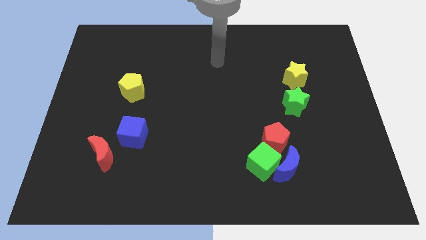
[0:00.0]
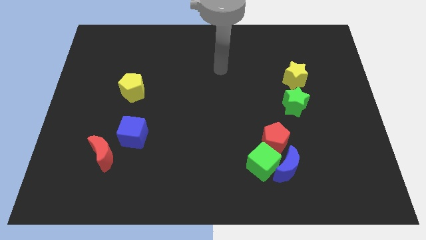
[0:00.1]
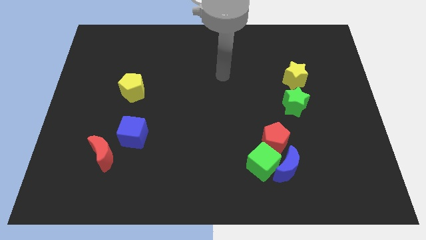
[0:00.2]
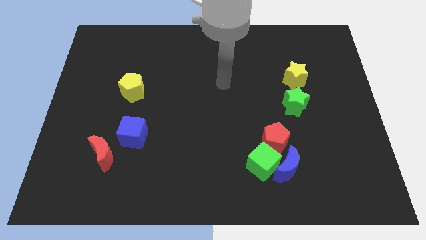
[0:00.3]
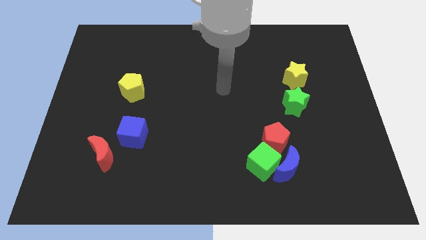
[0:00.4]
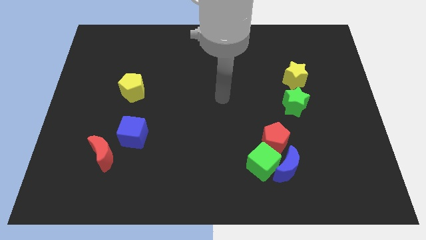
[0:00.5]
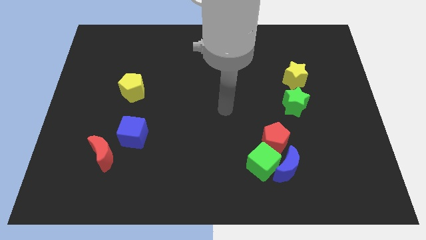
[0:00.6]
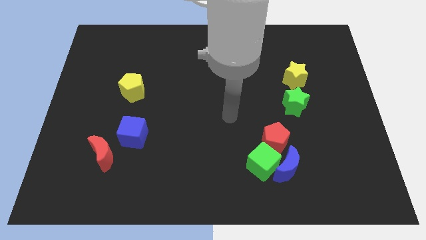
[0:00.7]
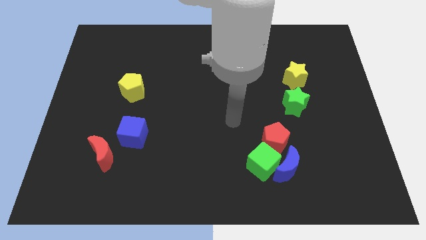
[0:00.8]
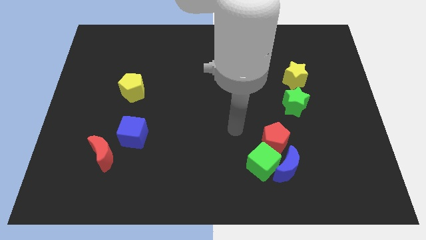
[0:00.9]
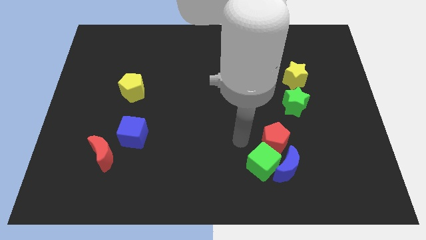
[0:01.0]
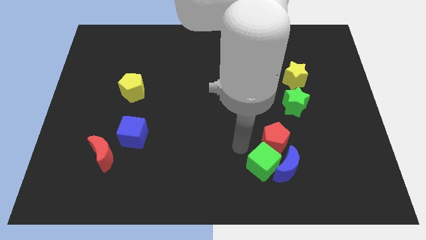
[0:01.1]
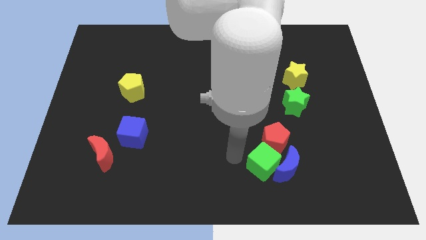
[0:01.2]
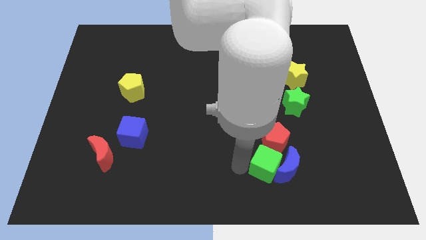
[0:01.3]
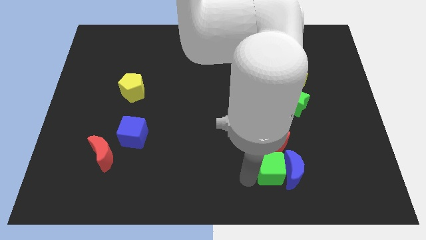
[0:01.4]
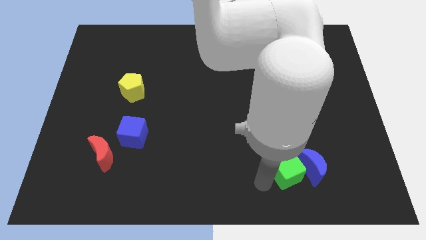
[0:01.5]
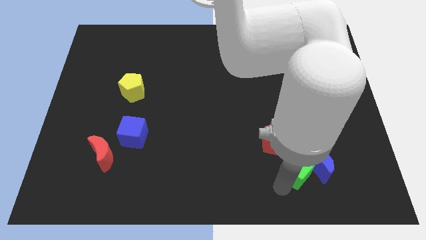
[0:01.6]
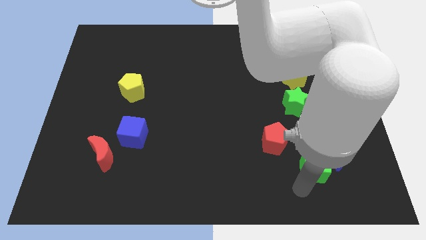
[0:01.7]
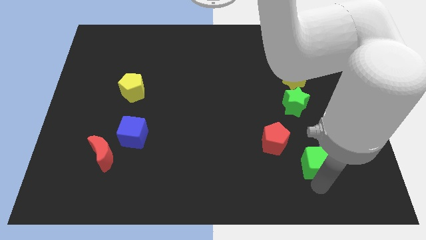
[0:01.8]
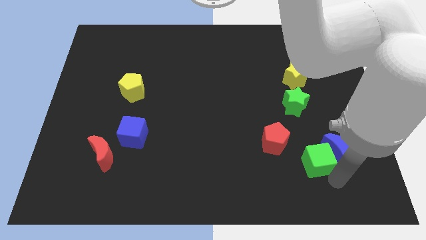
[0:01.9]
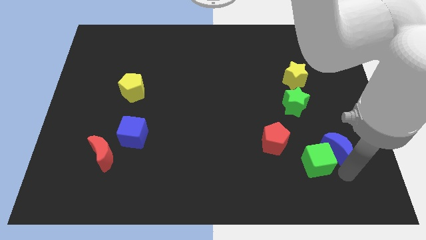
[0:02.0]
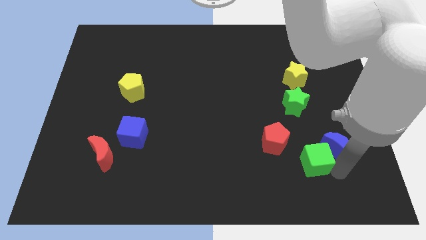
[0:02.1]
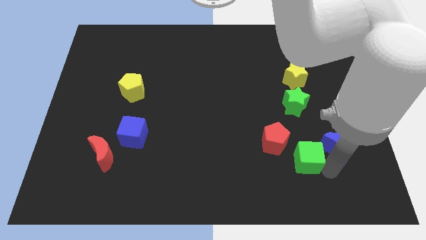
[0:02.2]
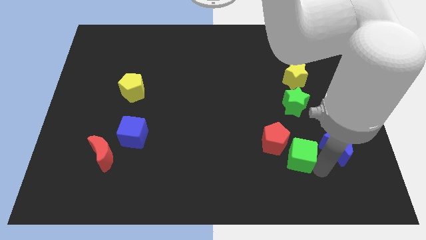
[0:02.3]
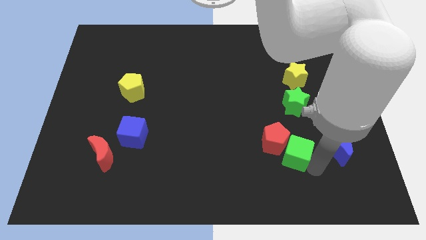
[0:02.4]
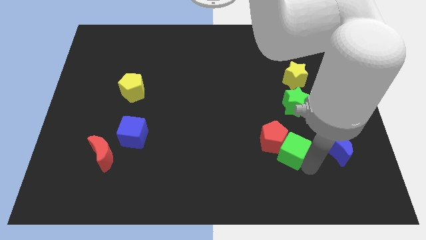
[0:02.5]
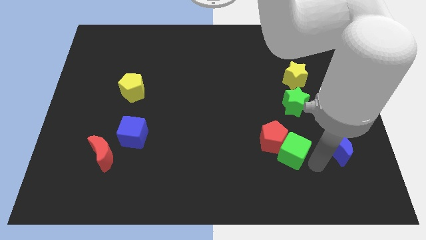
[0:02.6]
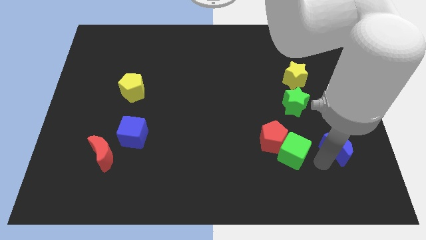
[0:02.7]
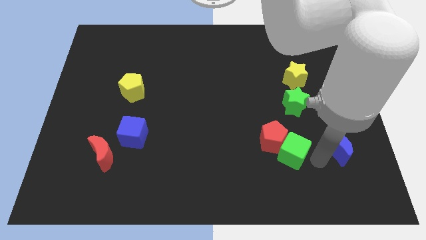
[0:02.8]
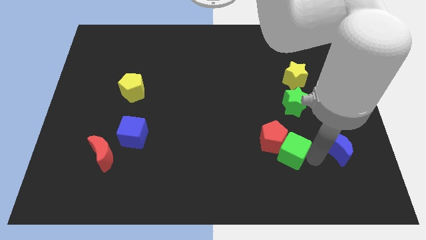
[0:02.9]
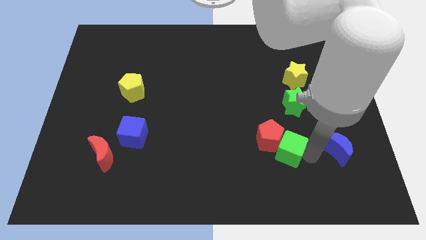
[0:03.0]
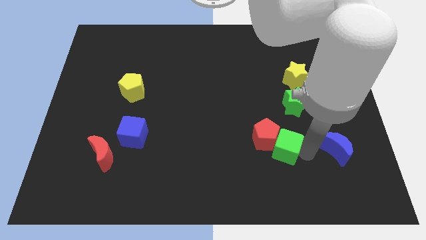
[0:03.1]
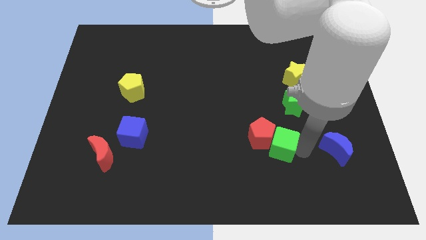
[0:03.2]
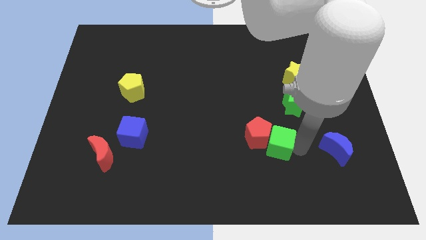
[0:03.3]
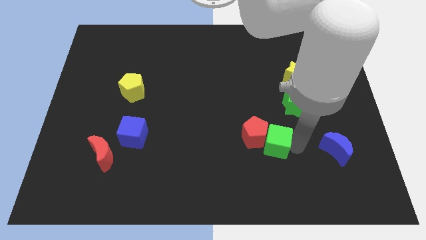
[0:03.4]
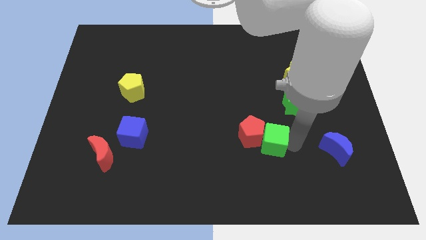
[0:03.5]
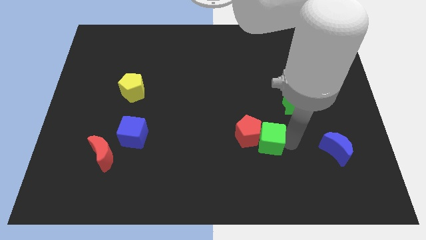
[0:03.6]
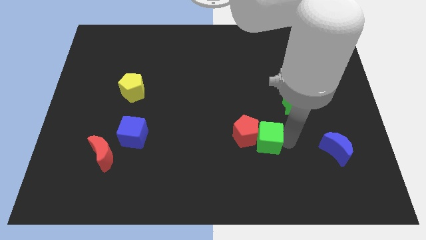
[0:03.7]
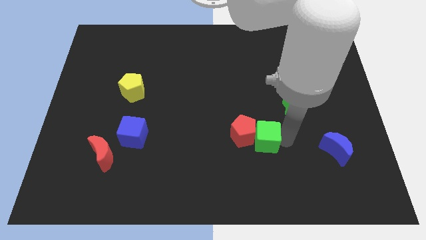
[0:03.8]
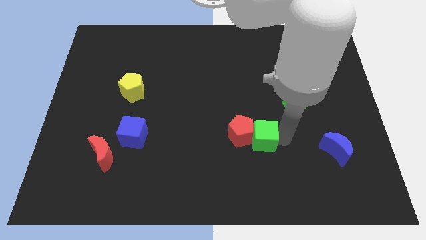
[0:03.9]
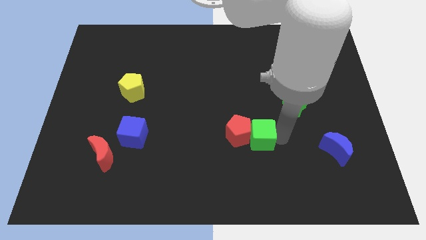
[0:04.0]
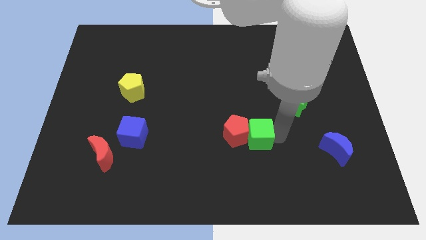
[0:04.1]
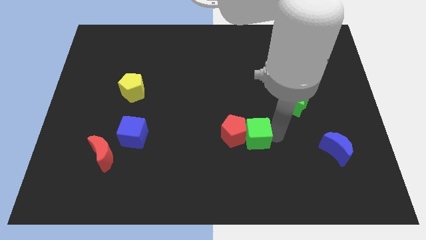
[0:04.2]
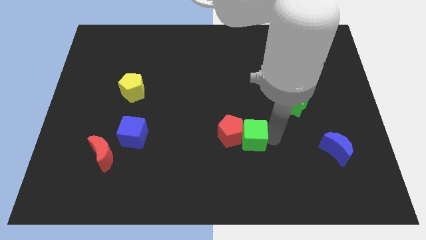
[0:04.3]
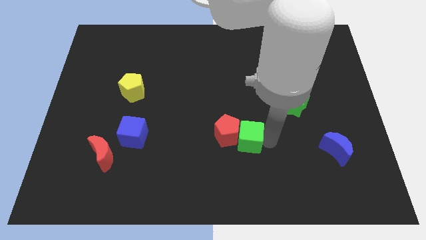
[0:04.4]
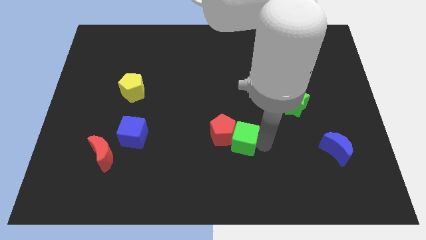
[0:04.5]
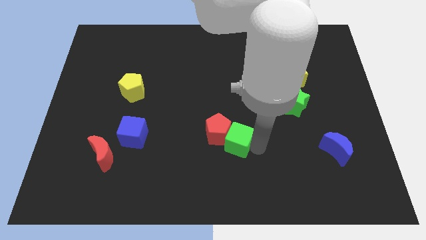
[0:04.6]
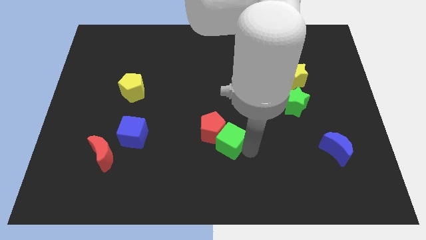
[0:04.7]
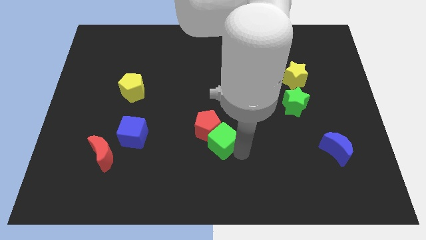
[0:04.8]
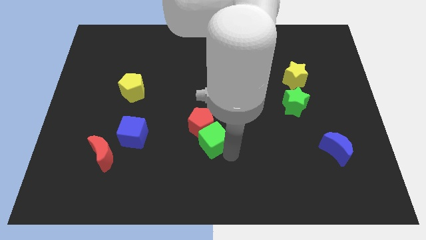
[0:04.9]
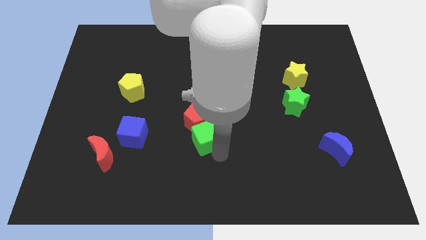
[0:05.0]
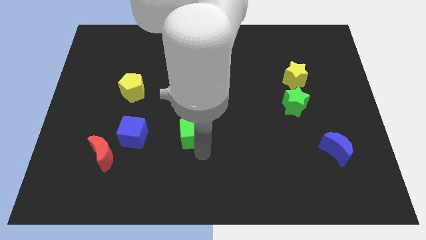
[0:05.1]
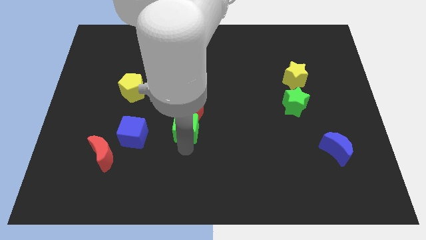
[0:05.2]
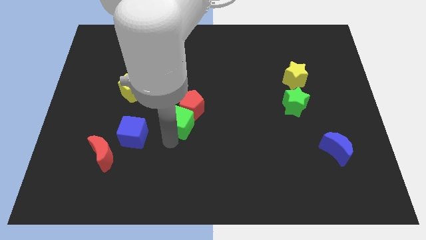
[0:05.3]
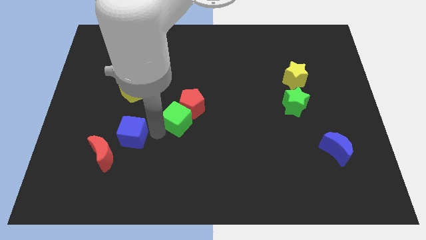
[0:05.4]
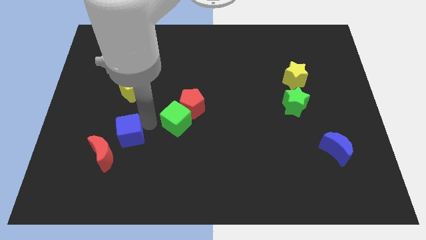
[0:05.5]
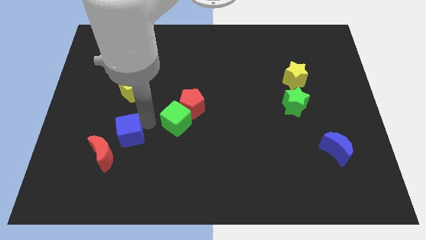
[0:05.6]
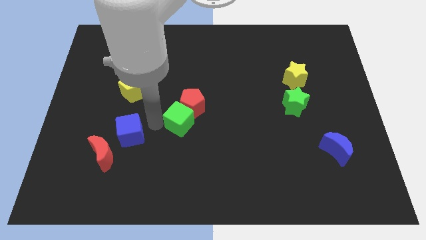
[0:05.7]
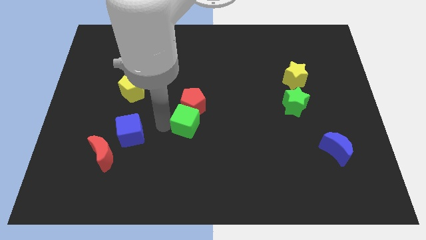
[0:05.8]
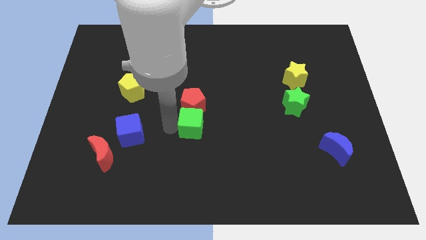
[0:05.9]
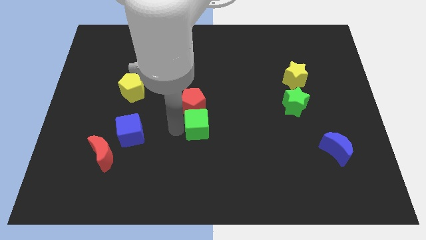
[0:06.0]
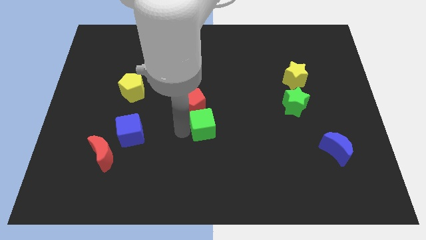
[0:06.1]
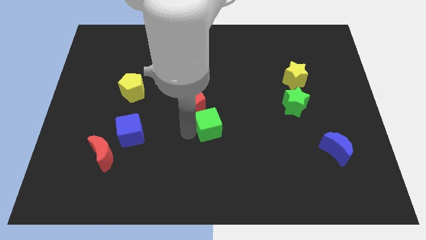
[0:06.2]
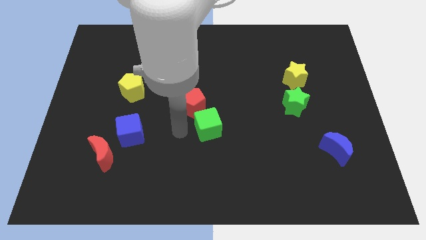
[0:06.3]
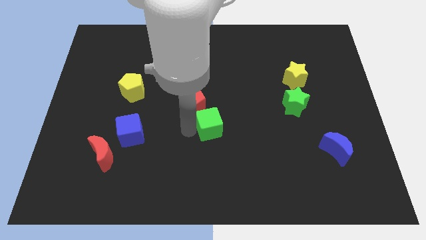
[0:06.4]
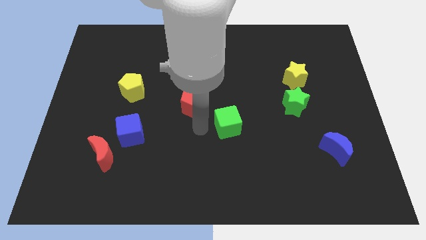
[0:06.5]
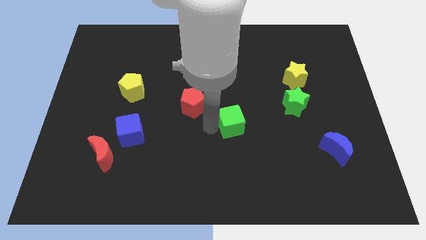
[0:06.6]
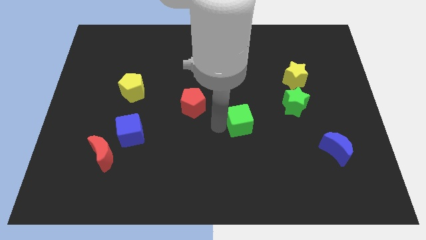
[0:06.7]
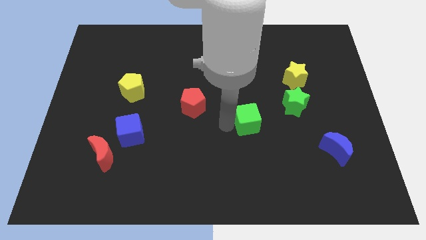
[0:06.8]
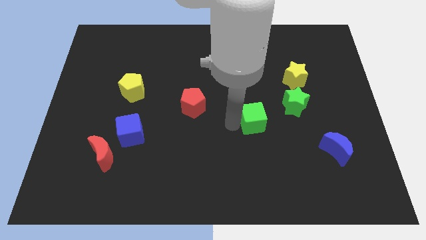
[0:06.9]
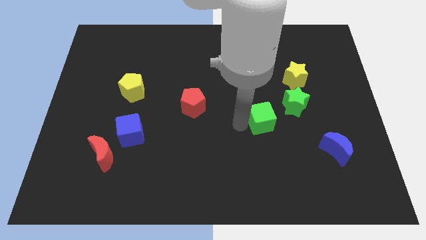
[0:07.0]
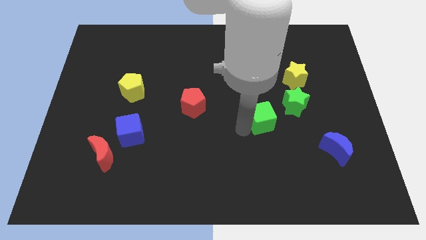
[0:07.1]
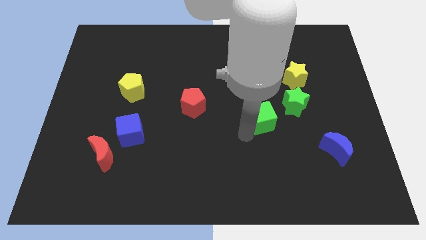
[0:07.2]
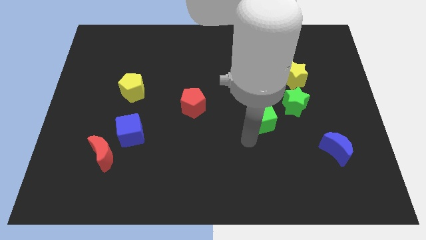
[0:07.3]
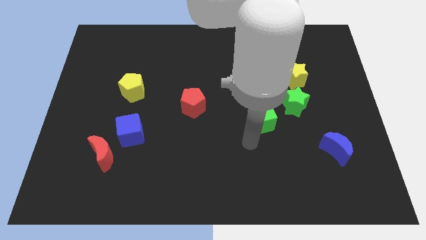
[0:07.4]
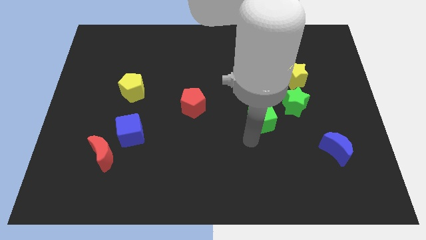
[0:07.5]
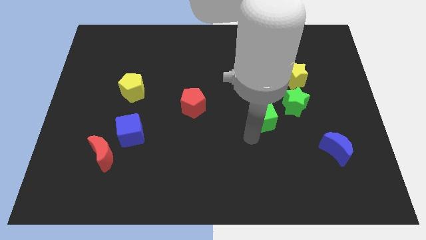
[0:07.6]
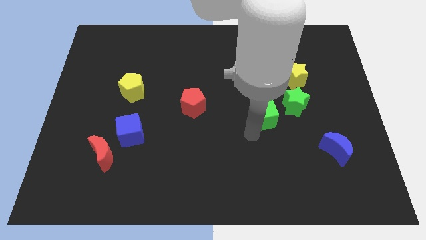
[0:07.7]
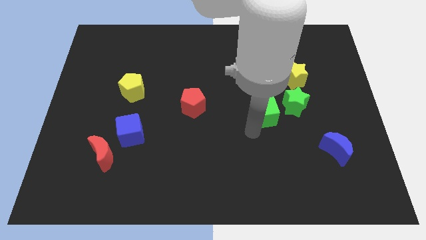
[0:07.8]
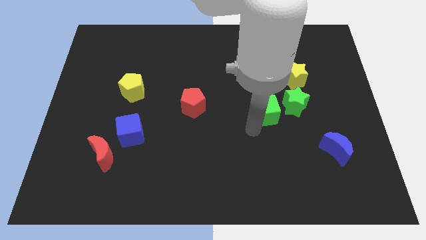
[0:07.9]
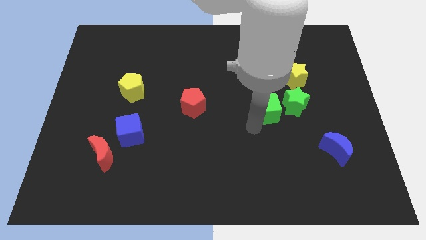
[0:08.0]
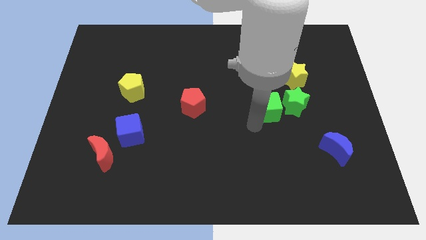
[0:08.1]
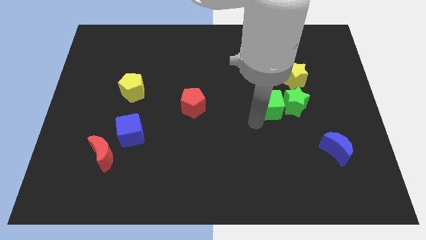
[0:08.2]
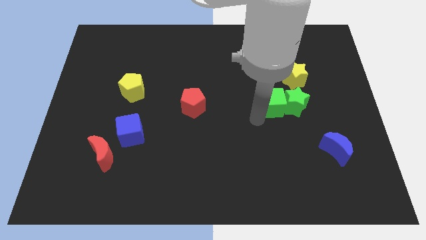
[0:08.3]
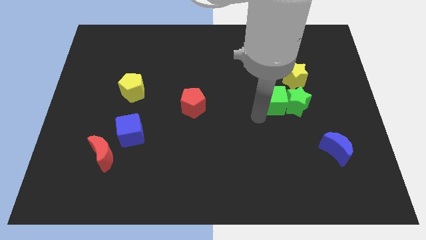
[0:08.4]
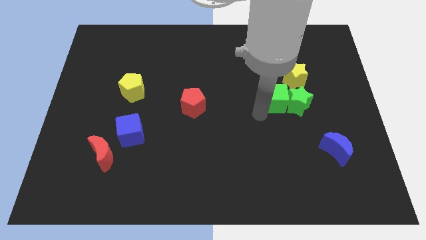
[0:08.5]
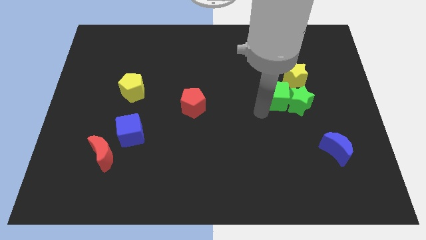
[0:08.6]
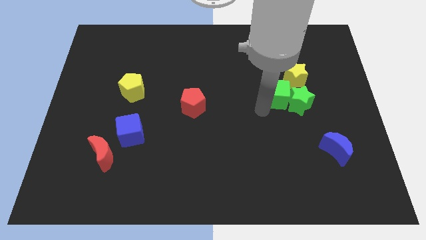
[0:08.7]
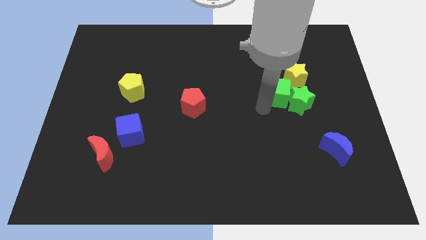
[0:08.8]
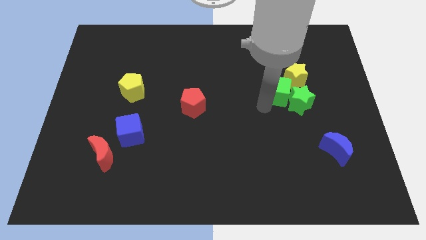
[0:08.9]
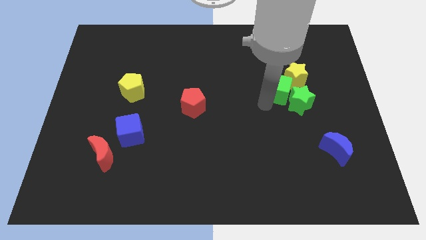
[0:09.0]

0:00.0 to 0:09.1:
move the green cube next to the yellow star
